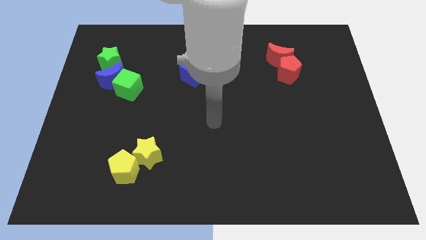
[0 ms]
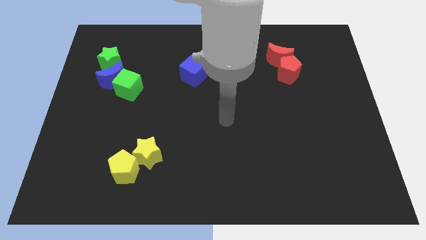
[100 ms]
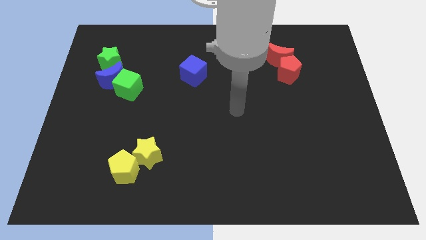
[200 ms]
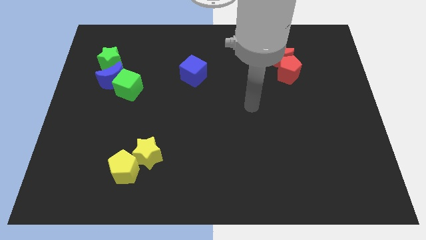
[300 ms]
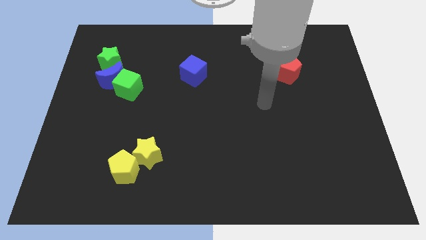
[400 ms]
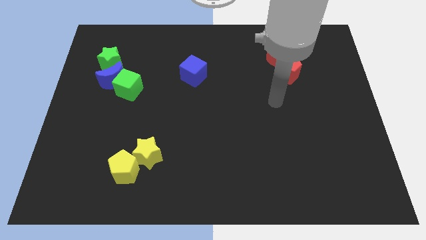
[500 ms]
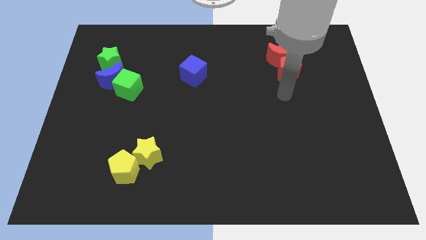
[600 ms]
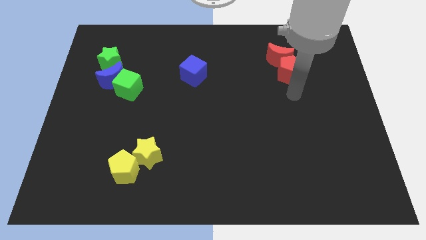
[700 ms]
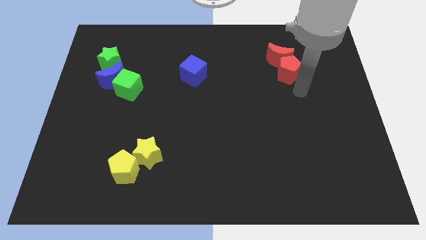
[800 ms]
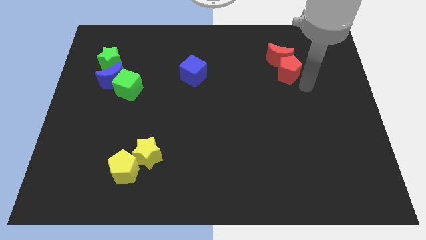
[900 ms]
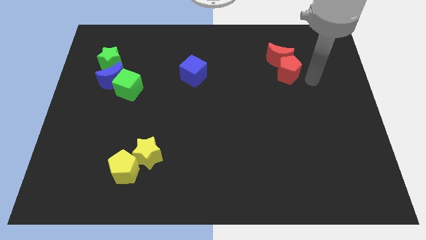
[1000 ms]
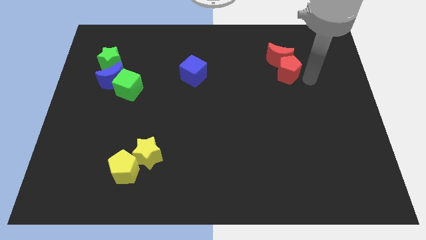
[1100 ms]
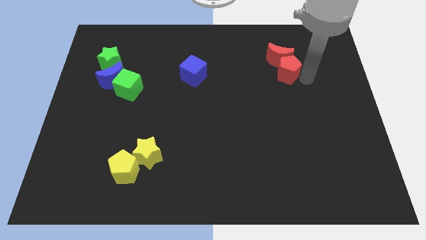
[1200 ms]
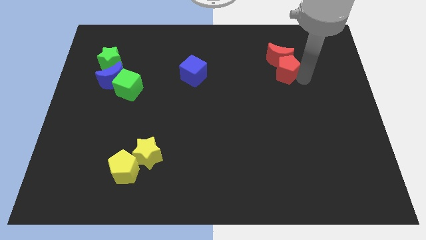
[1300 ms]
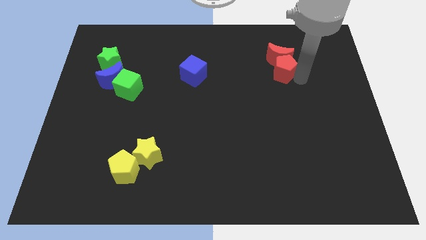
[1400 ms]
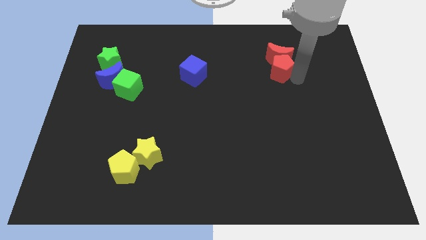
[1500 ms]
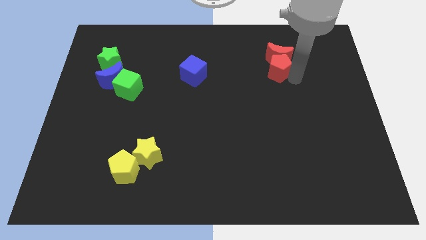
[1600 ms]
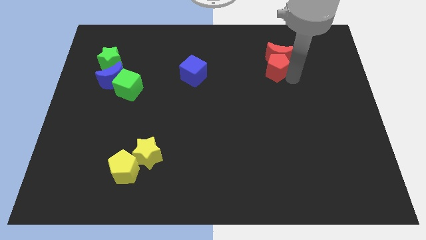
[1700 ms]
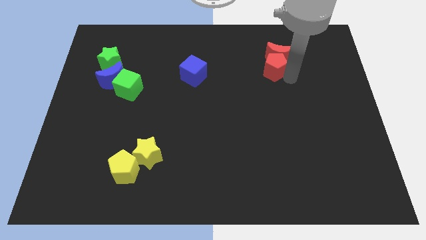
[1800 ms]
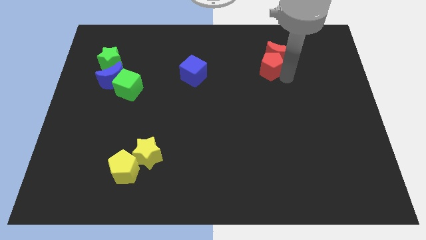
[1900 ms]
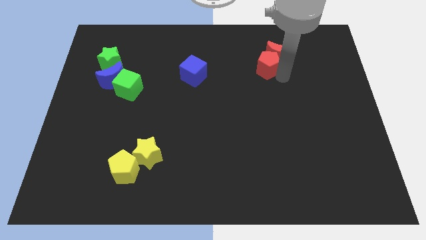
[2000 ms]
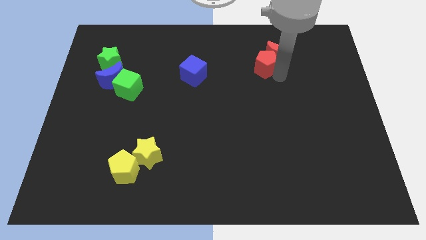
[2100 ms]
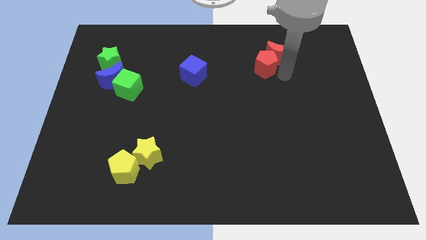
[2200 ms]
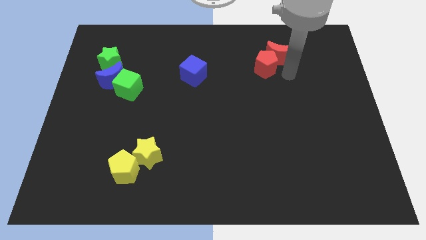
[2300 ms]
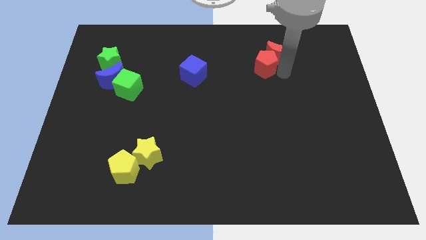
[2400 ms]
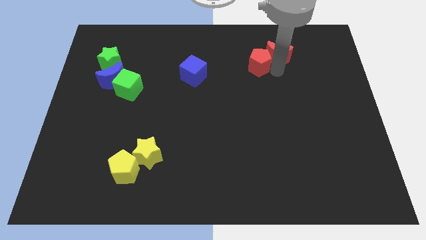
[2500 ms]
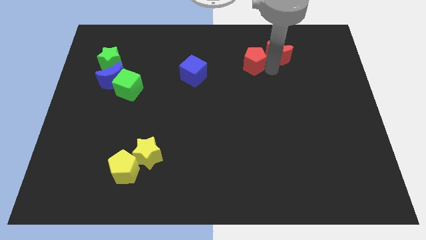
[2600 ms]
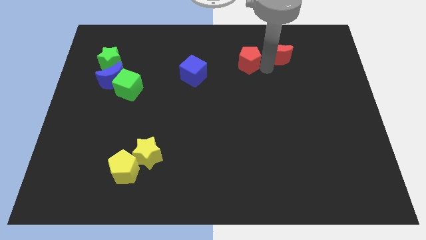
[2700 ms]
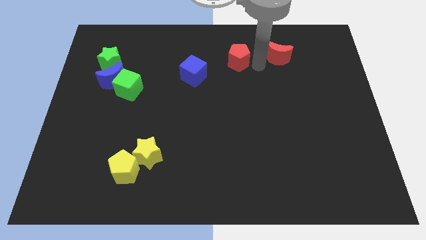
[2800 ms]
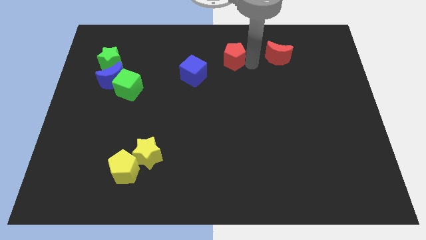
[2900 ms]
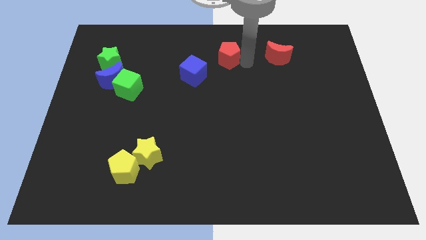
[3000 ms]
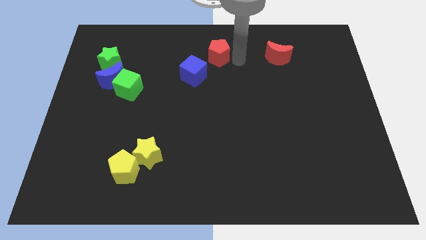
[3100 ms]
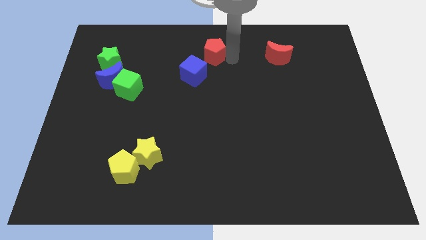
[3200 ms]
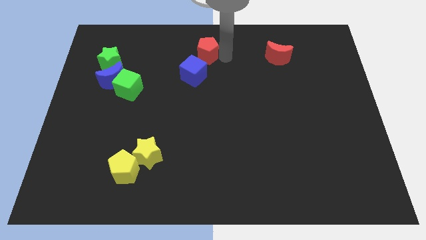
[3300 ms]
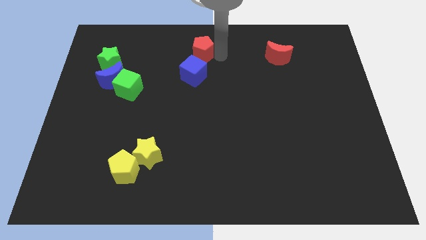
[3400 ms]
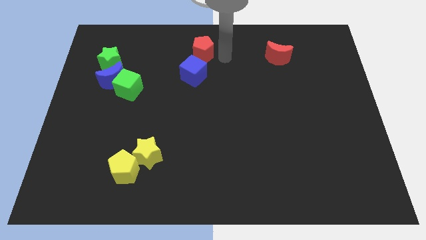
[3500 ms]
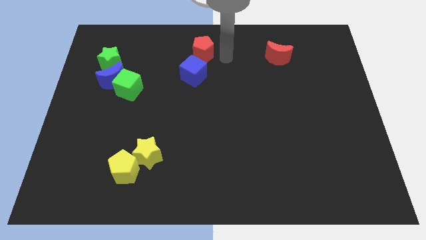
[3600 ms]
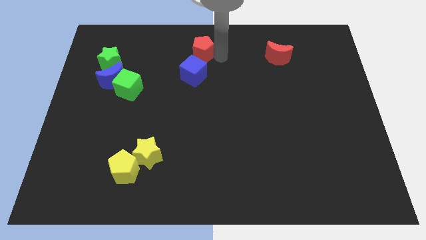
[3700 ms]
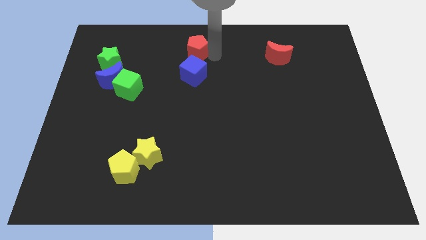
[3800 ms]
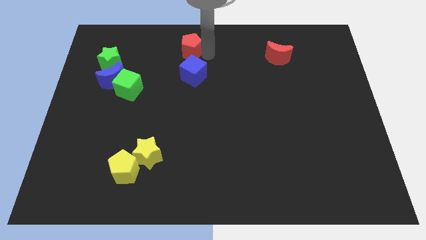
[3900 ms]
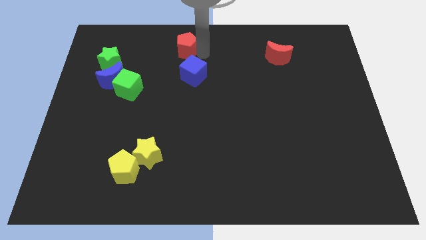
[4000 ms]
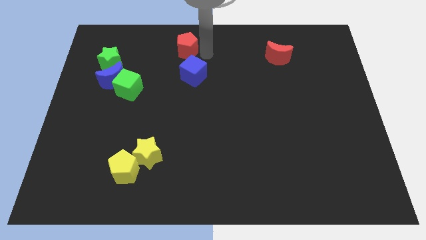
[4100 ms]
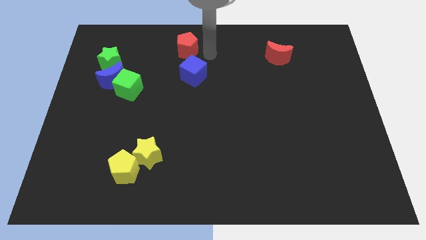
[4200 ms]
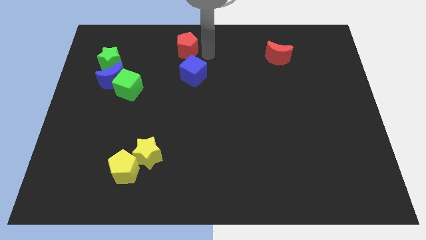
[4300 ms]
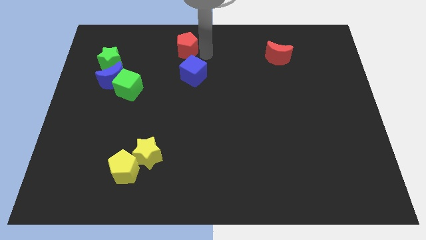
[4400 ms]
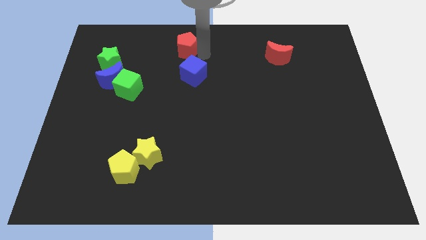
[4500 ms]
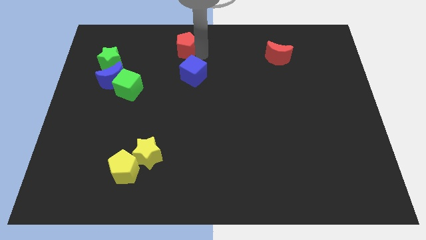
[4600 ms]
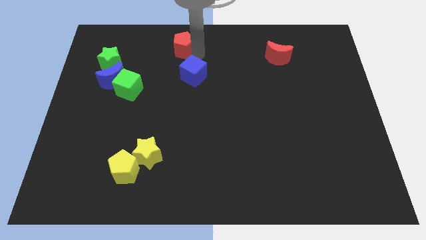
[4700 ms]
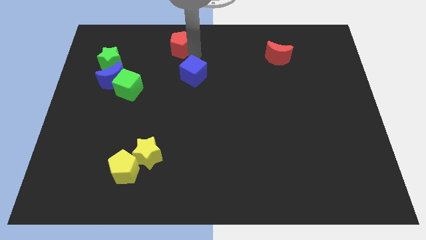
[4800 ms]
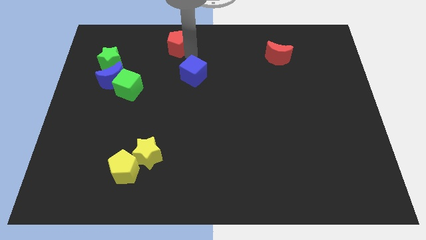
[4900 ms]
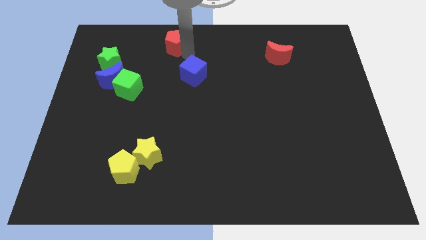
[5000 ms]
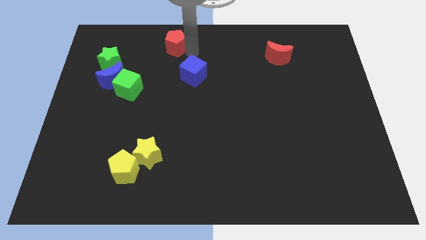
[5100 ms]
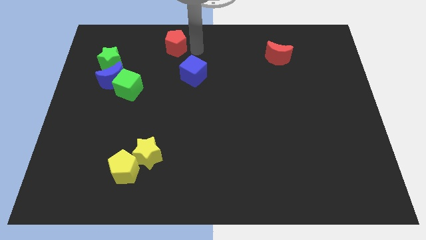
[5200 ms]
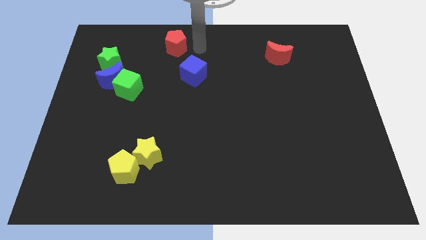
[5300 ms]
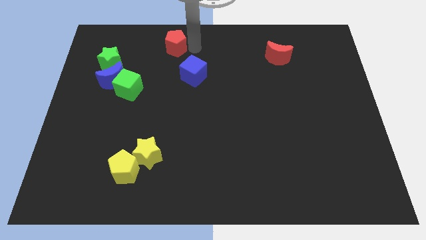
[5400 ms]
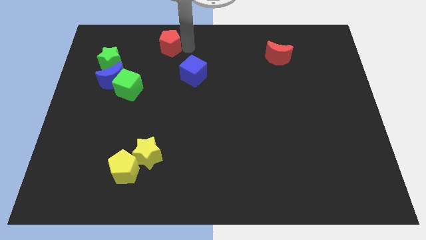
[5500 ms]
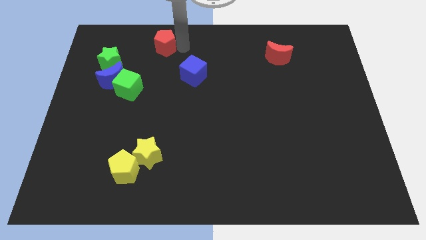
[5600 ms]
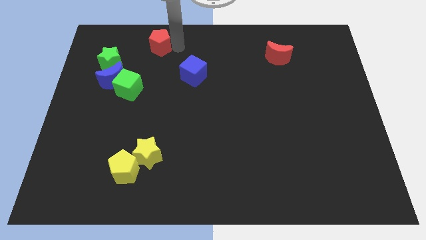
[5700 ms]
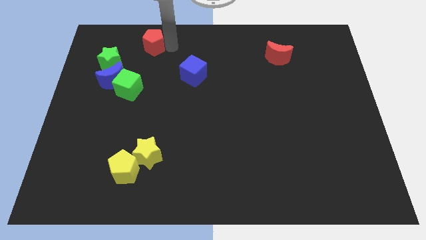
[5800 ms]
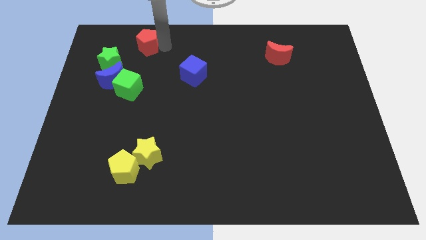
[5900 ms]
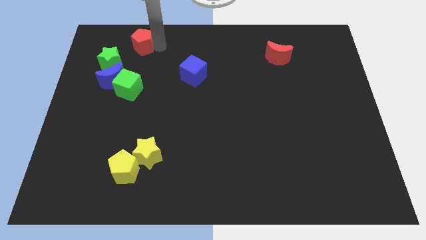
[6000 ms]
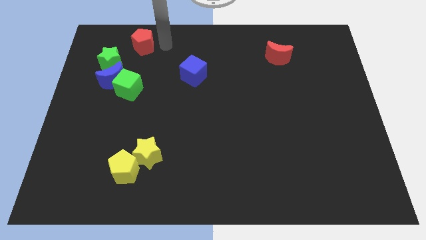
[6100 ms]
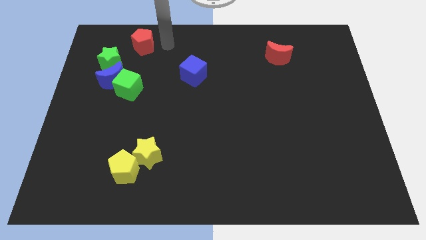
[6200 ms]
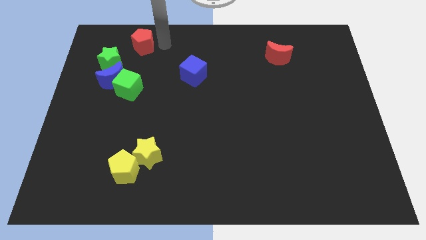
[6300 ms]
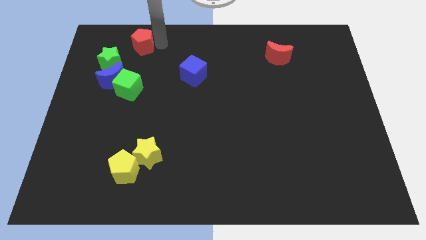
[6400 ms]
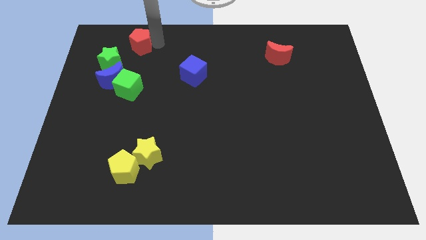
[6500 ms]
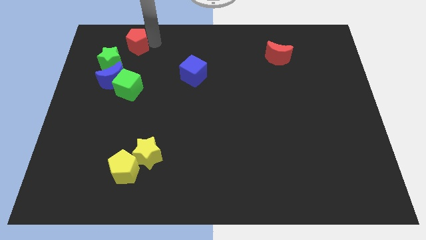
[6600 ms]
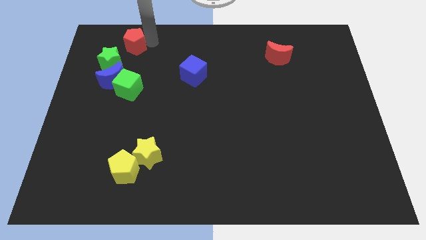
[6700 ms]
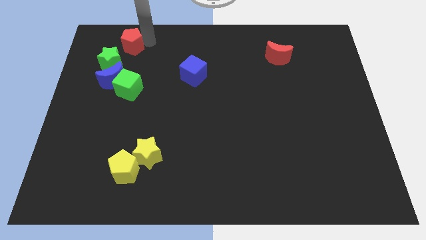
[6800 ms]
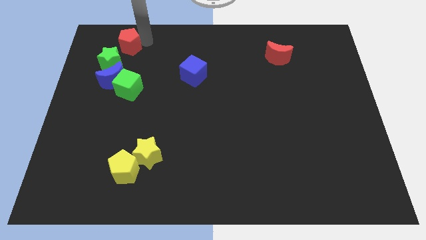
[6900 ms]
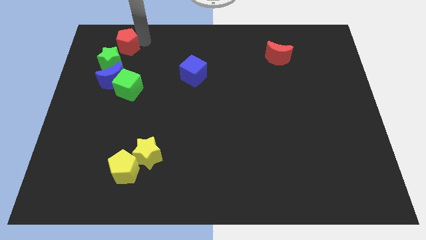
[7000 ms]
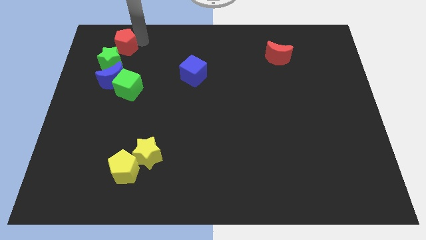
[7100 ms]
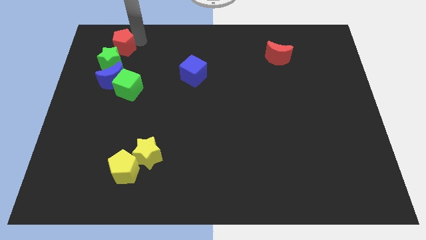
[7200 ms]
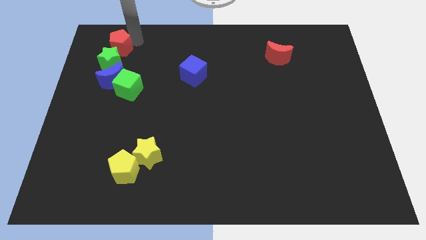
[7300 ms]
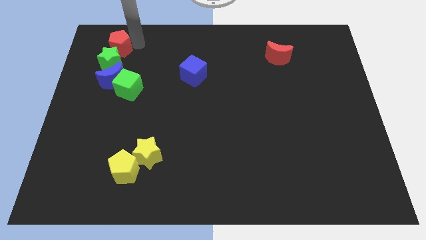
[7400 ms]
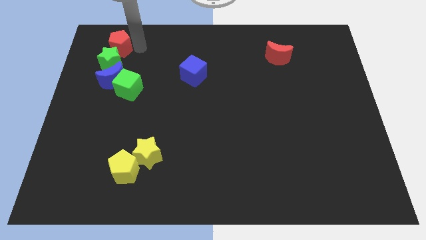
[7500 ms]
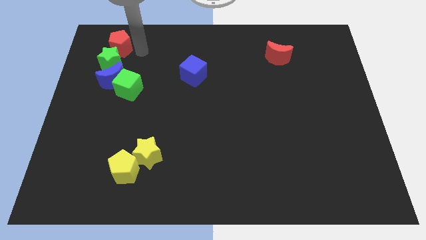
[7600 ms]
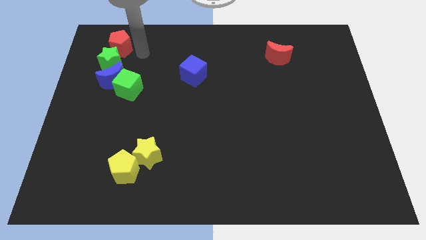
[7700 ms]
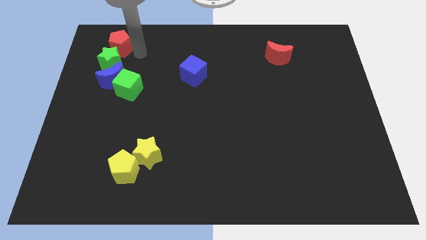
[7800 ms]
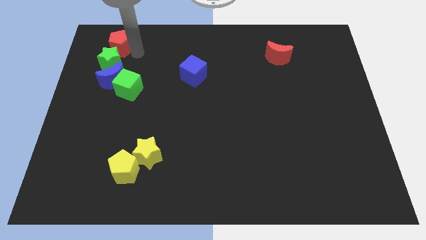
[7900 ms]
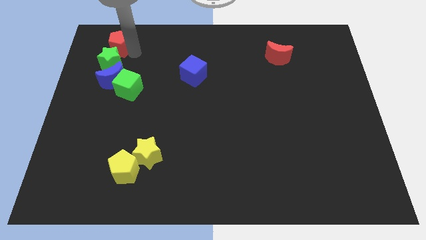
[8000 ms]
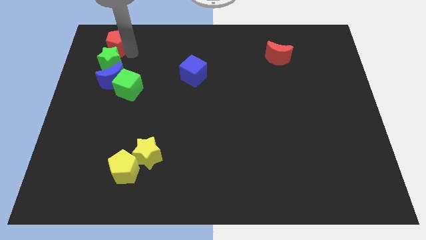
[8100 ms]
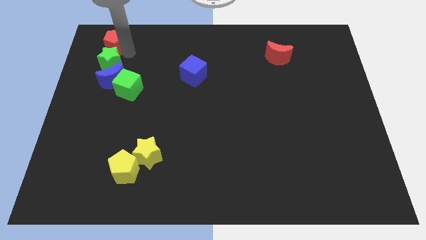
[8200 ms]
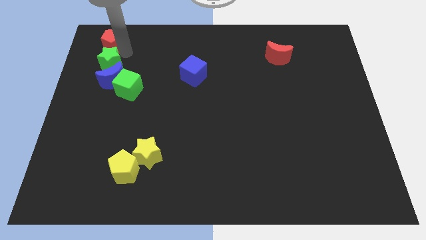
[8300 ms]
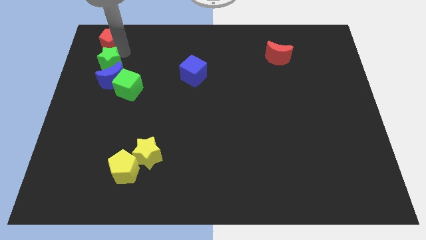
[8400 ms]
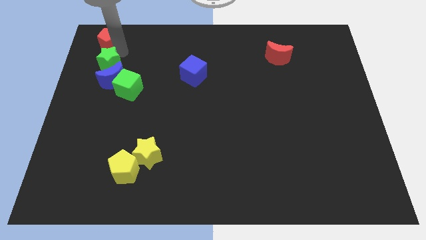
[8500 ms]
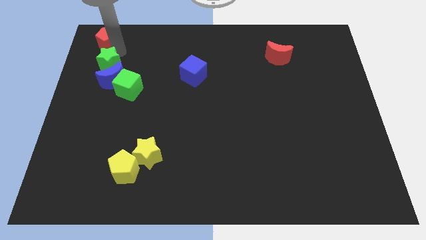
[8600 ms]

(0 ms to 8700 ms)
put the red pentagon to the top left
